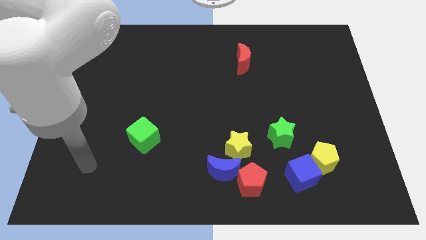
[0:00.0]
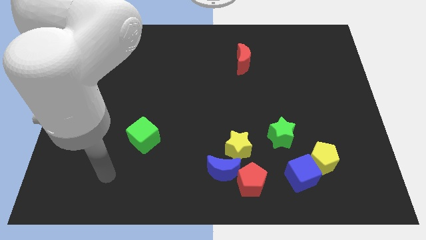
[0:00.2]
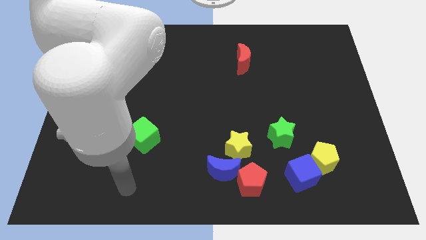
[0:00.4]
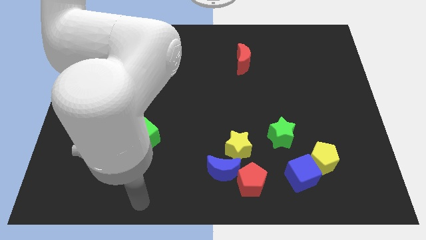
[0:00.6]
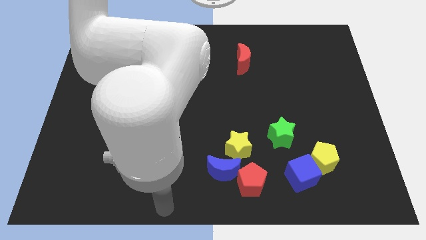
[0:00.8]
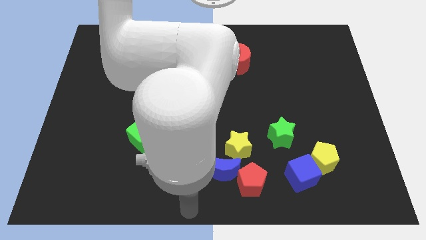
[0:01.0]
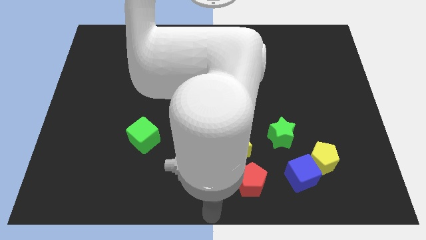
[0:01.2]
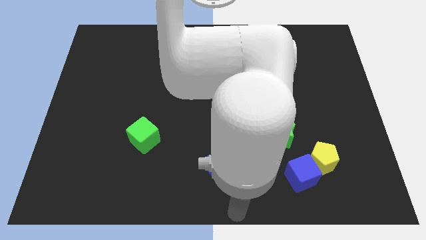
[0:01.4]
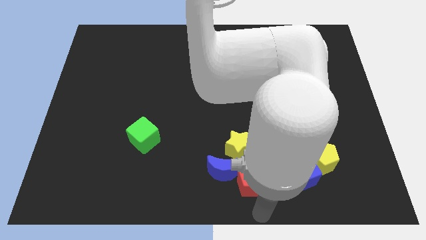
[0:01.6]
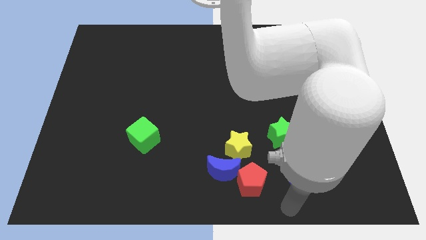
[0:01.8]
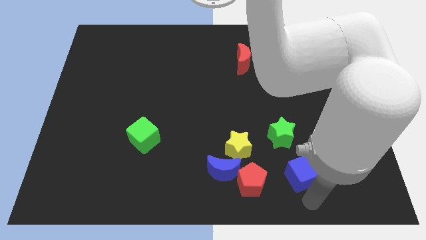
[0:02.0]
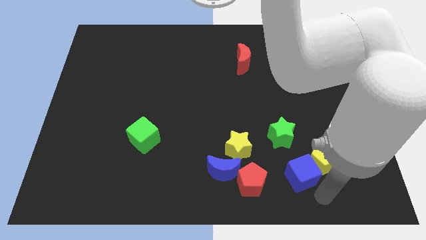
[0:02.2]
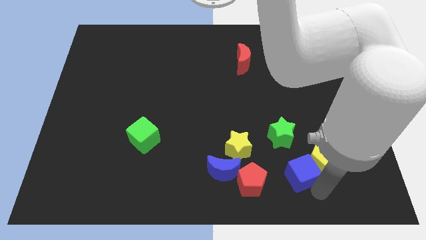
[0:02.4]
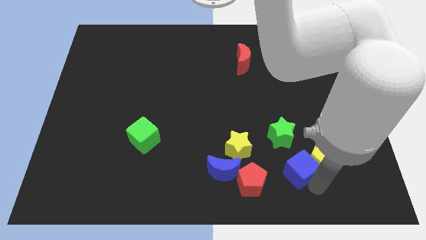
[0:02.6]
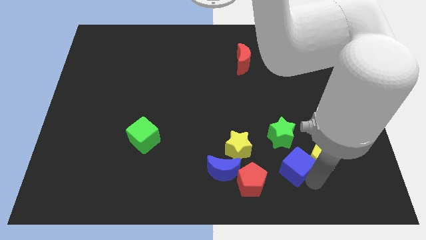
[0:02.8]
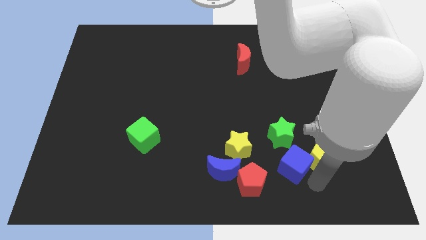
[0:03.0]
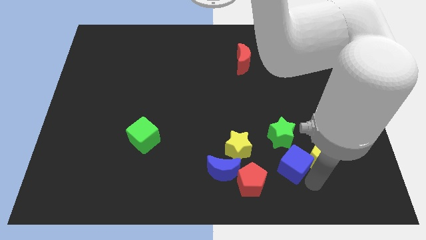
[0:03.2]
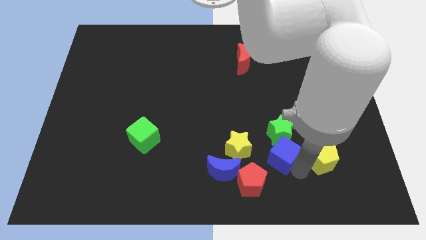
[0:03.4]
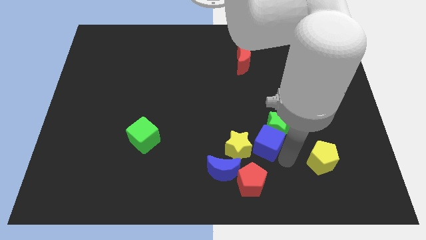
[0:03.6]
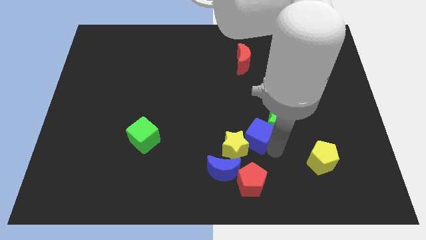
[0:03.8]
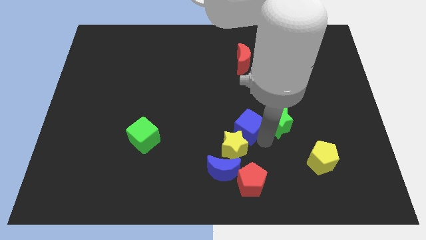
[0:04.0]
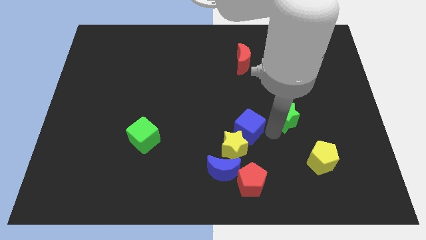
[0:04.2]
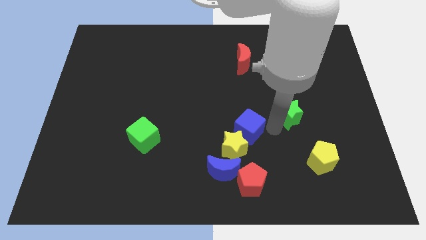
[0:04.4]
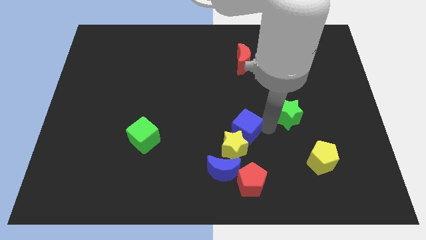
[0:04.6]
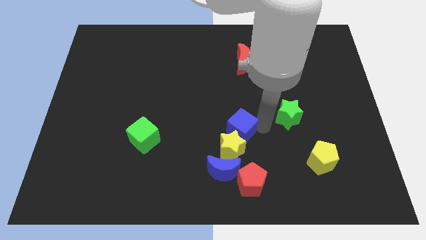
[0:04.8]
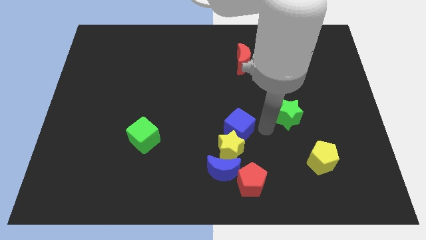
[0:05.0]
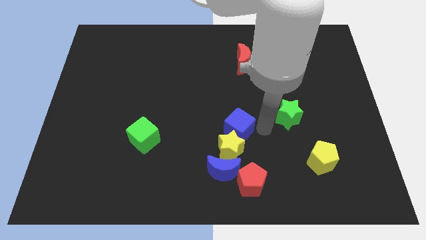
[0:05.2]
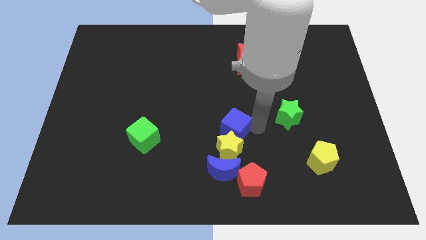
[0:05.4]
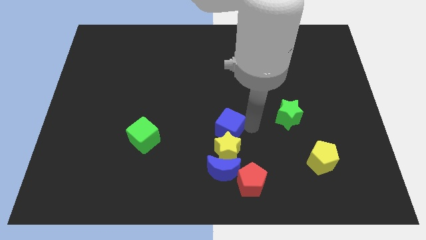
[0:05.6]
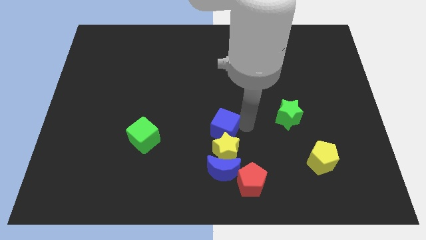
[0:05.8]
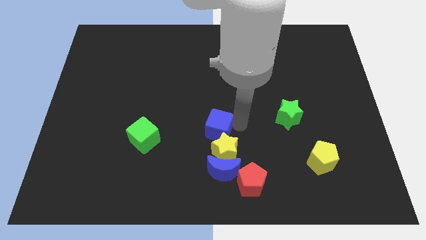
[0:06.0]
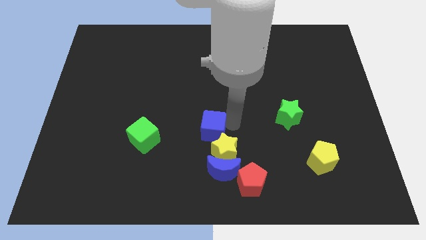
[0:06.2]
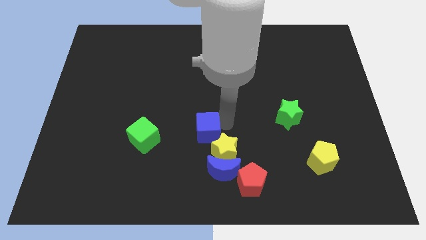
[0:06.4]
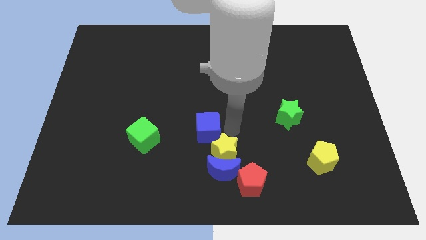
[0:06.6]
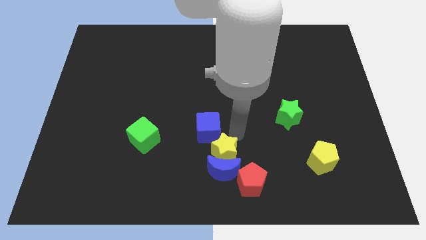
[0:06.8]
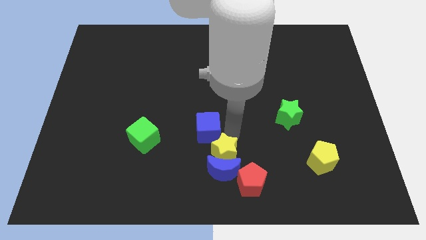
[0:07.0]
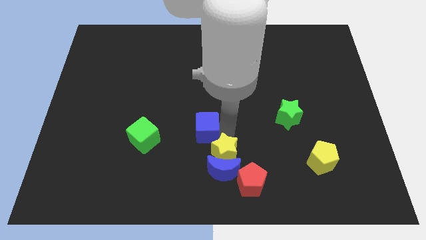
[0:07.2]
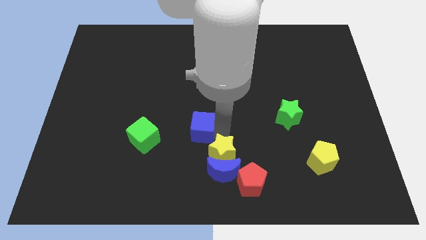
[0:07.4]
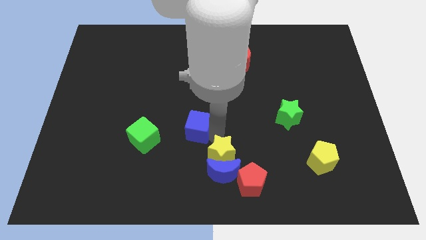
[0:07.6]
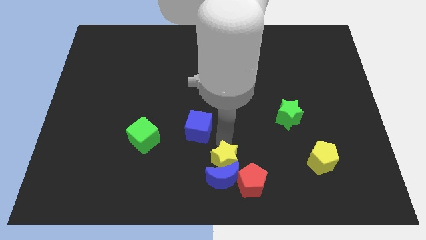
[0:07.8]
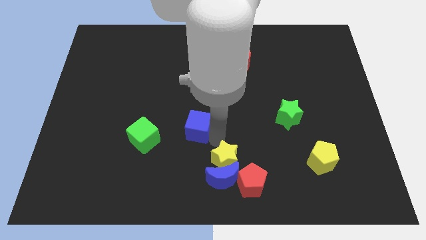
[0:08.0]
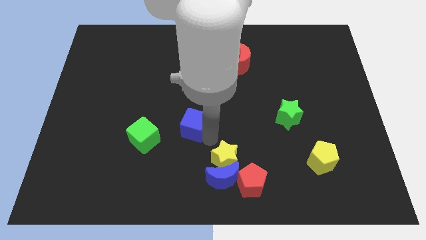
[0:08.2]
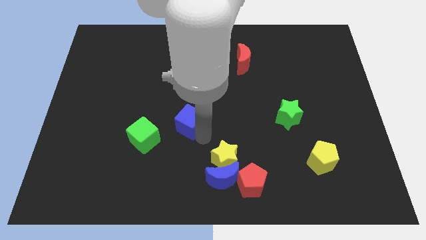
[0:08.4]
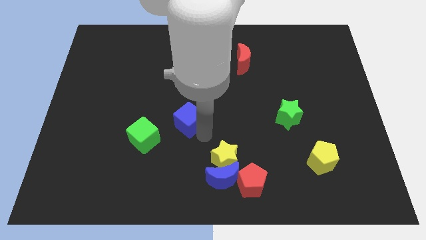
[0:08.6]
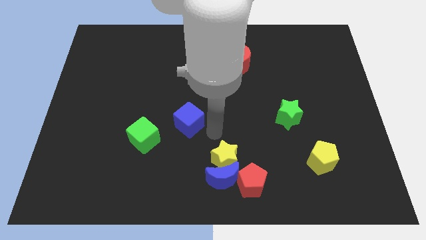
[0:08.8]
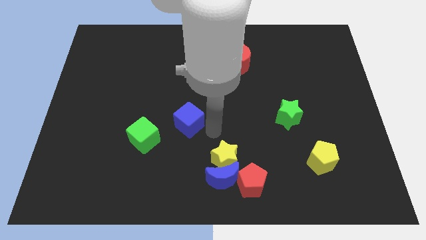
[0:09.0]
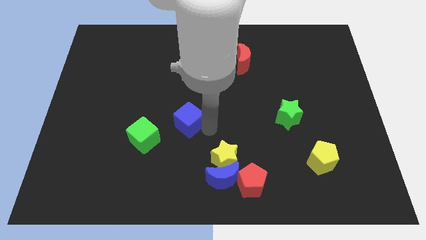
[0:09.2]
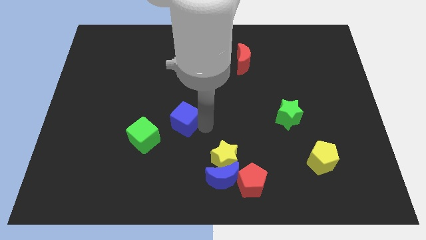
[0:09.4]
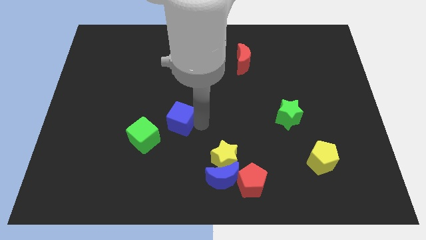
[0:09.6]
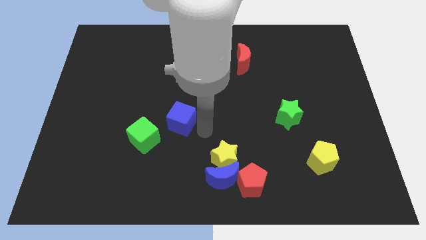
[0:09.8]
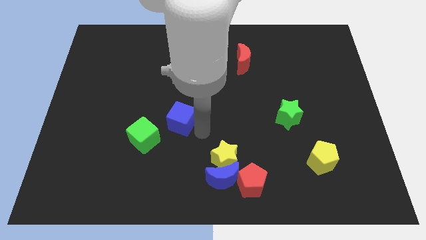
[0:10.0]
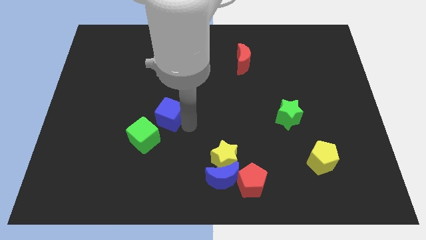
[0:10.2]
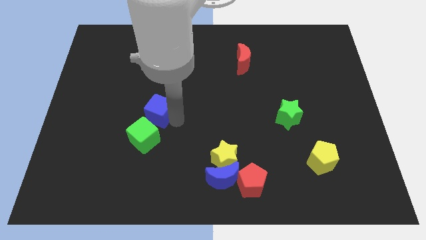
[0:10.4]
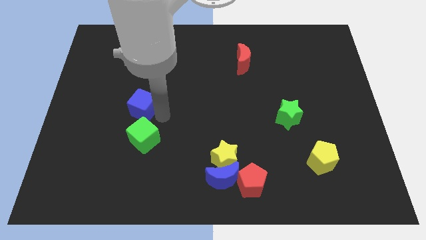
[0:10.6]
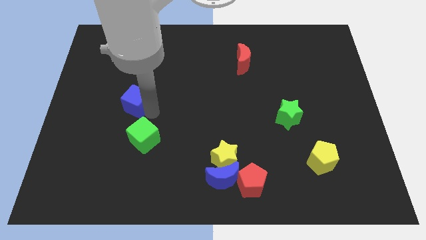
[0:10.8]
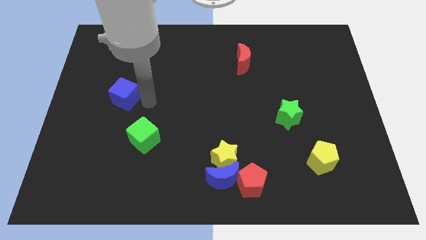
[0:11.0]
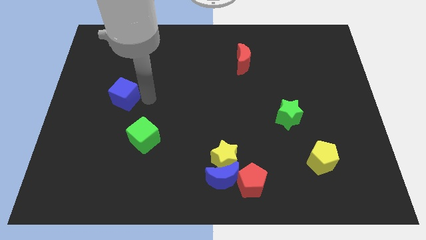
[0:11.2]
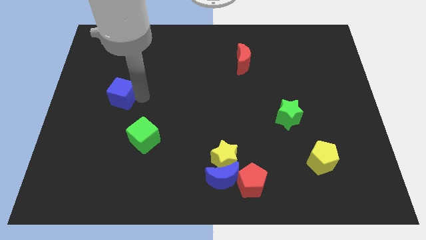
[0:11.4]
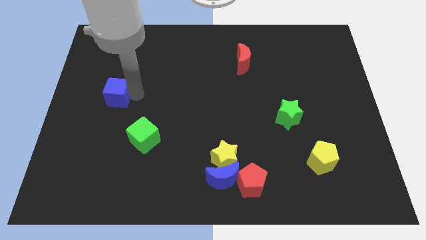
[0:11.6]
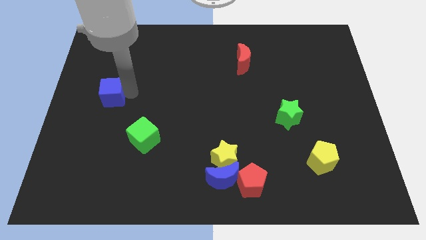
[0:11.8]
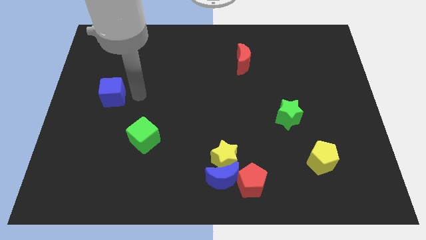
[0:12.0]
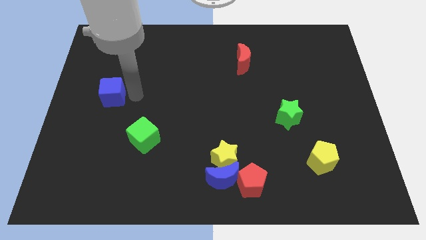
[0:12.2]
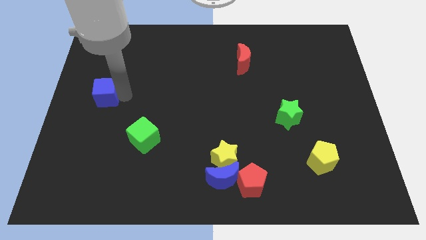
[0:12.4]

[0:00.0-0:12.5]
slide the blue cube to the left side of the board
